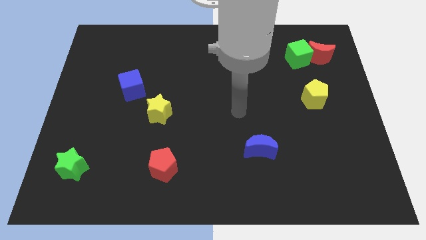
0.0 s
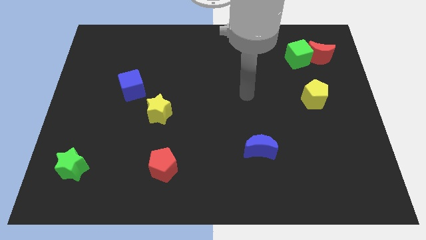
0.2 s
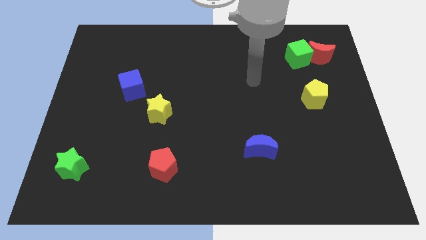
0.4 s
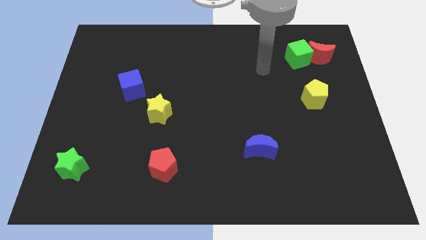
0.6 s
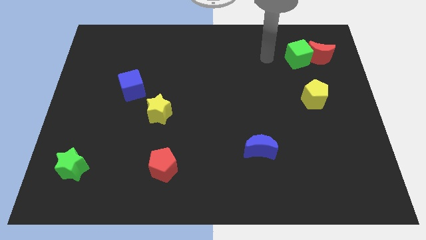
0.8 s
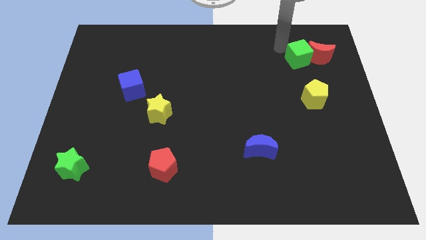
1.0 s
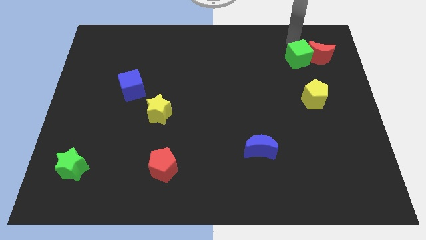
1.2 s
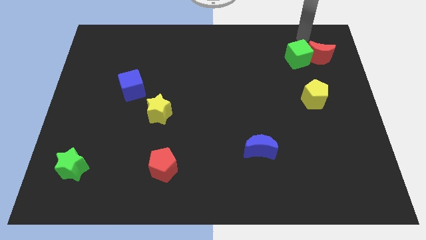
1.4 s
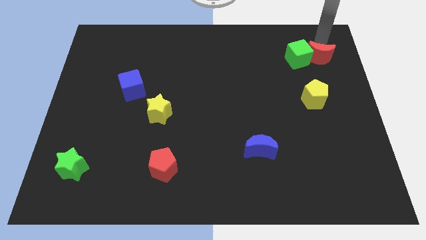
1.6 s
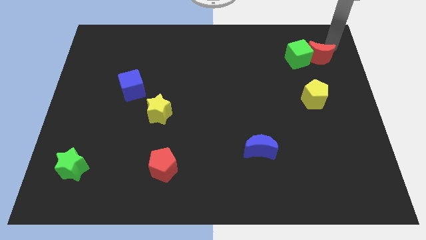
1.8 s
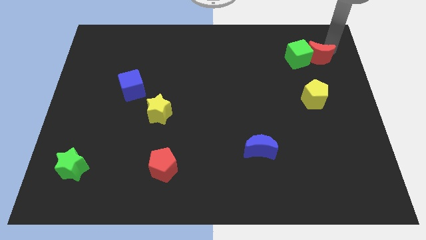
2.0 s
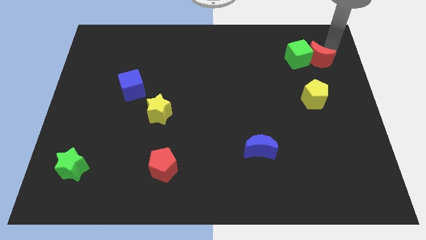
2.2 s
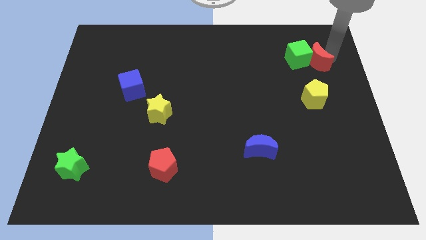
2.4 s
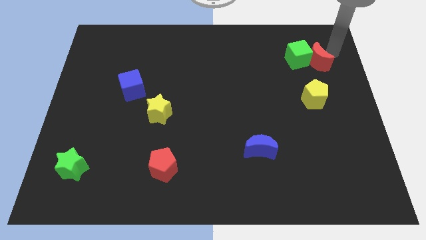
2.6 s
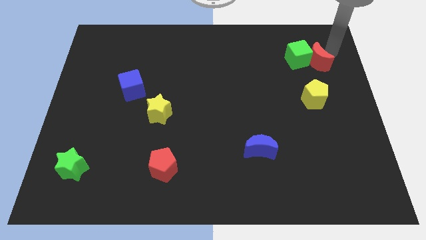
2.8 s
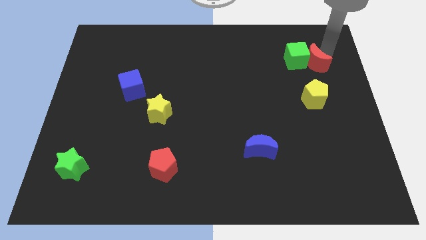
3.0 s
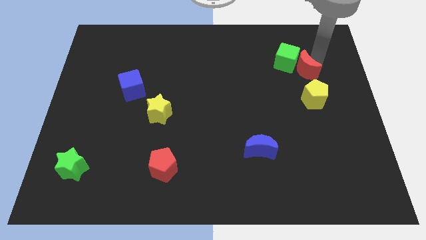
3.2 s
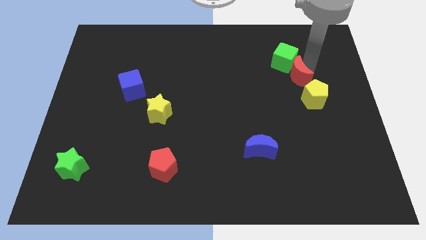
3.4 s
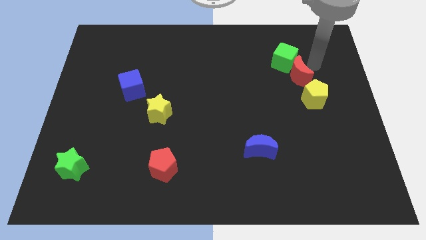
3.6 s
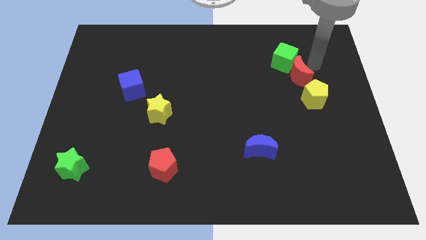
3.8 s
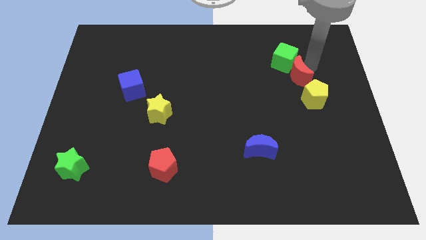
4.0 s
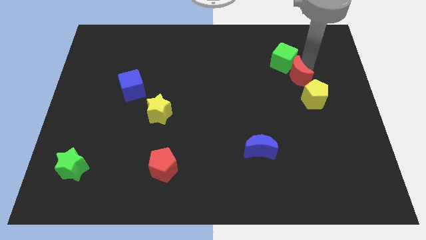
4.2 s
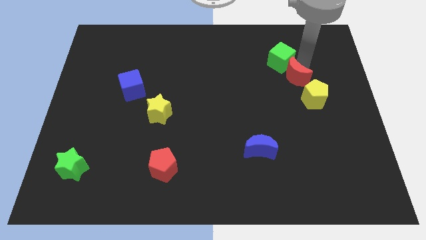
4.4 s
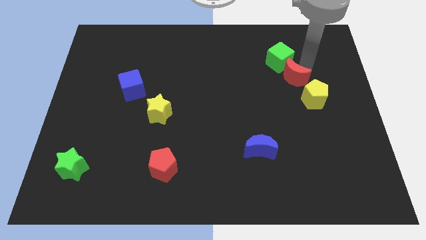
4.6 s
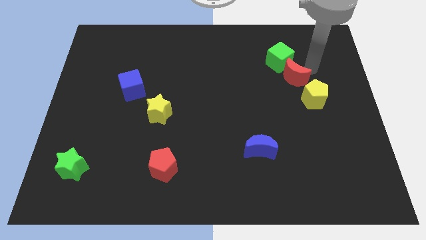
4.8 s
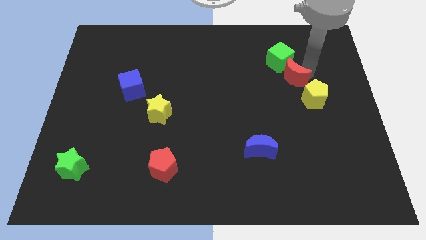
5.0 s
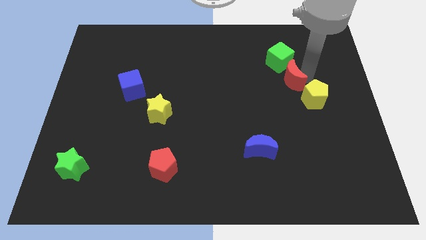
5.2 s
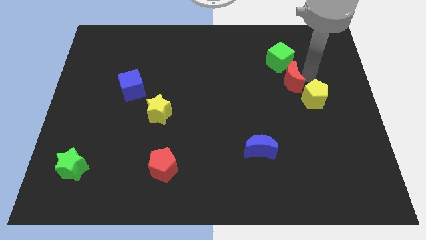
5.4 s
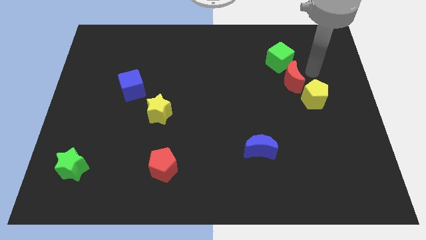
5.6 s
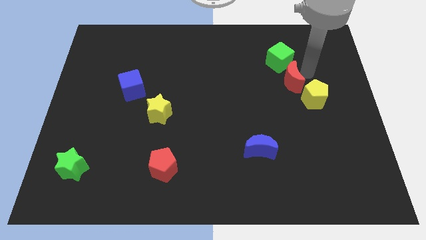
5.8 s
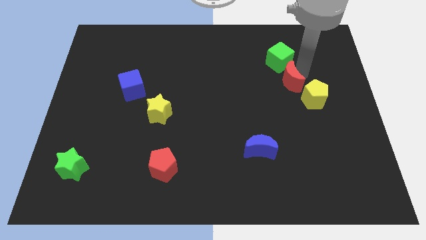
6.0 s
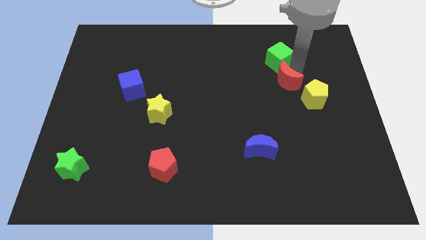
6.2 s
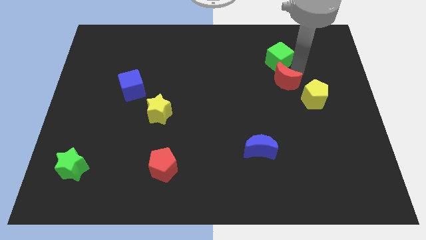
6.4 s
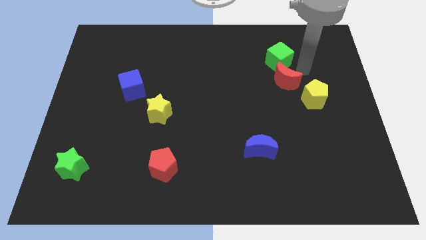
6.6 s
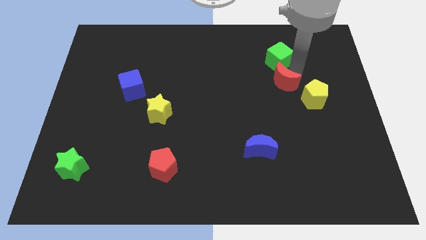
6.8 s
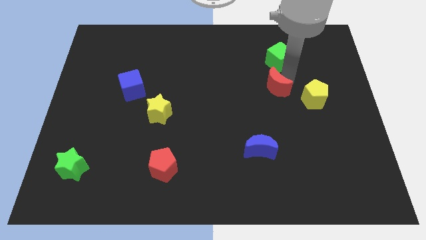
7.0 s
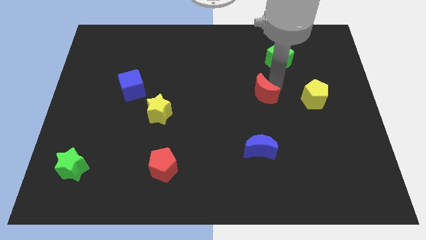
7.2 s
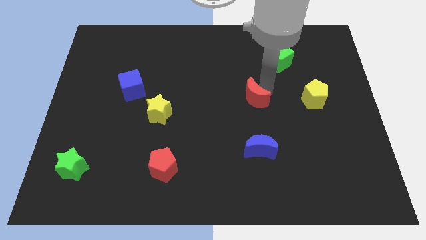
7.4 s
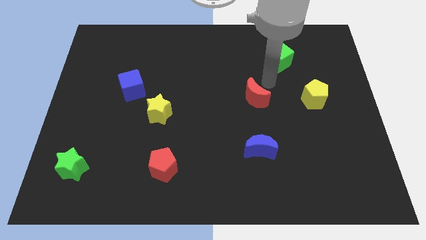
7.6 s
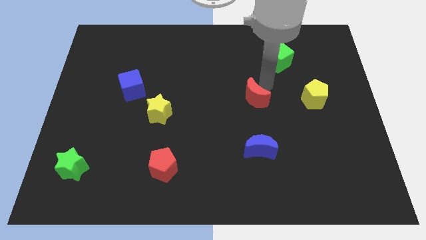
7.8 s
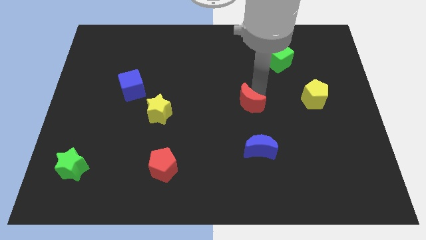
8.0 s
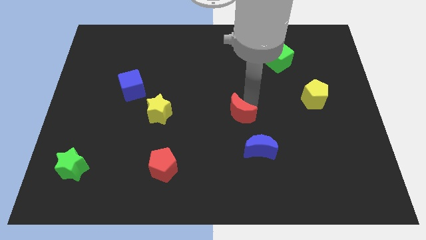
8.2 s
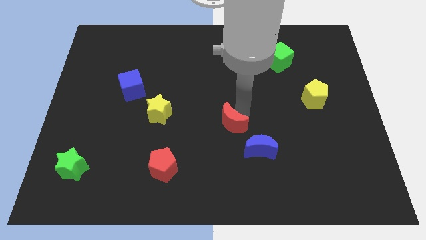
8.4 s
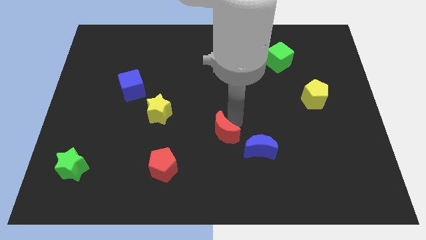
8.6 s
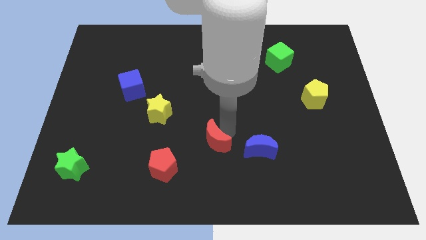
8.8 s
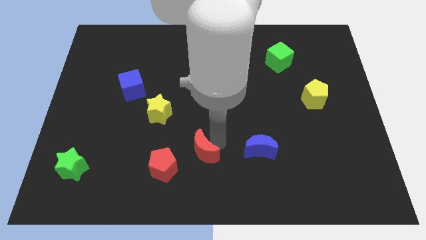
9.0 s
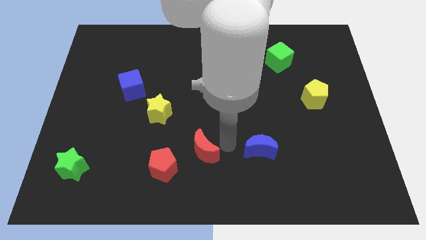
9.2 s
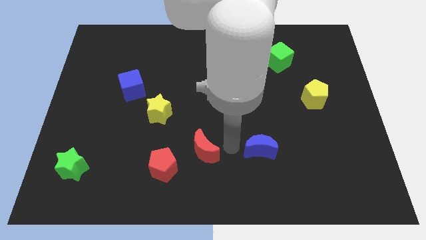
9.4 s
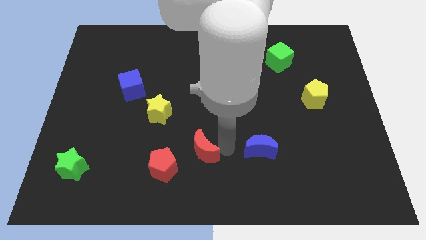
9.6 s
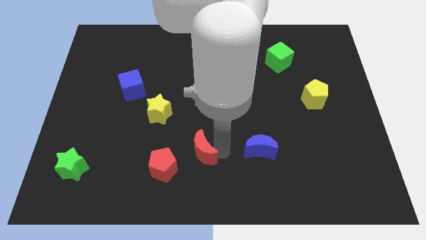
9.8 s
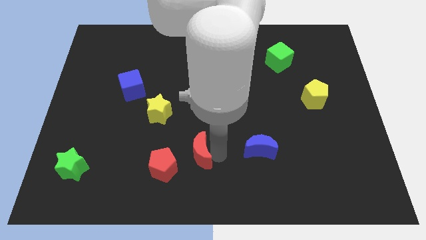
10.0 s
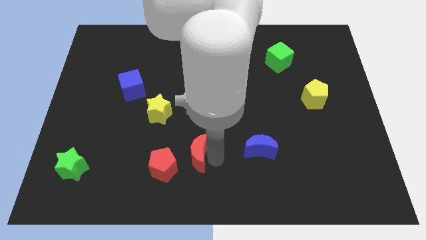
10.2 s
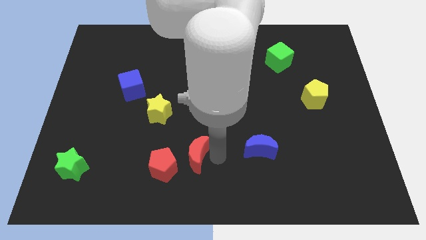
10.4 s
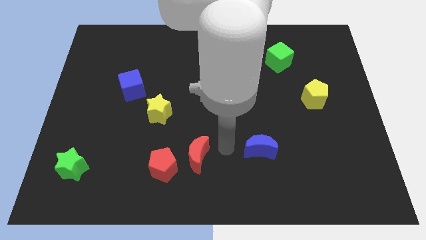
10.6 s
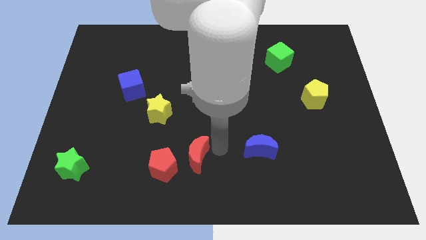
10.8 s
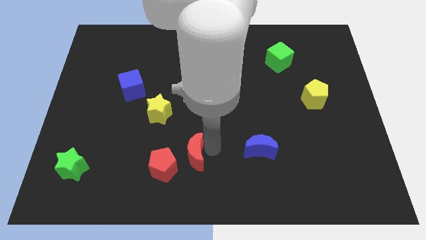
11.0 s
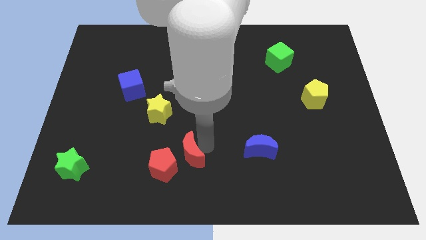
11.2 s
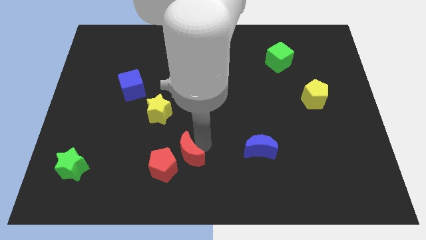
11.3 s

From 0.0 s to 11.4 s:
push the red moon towards the red pentagon

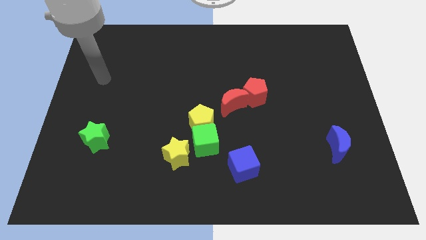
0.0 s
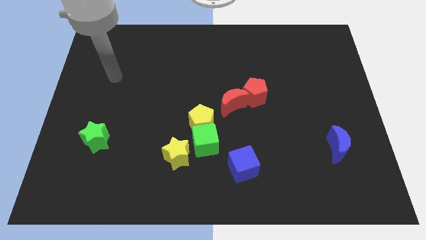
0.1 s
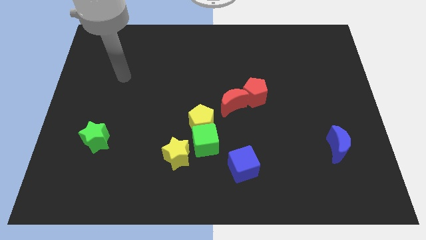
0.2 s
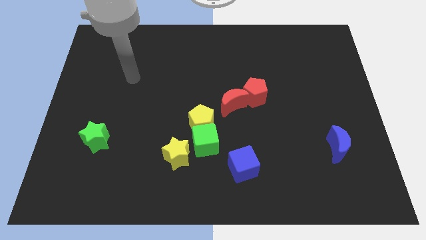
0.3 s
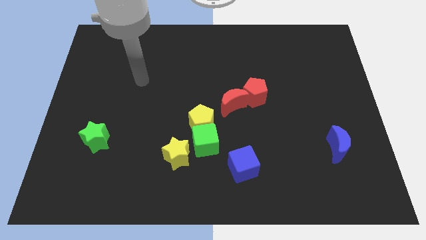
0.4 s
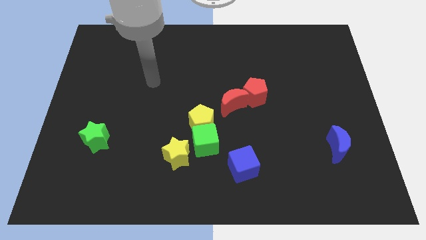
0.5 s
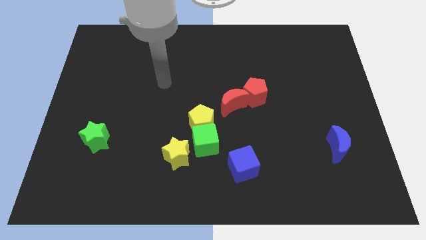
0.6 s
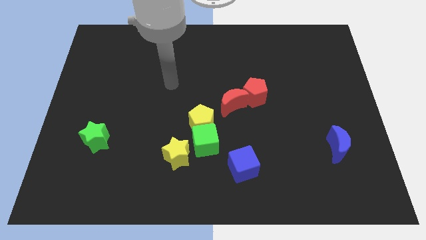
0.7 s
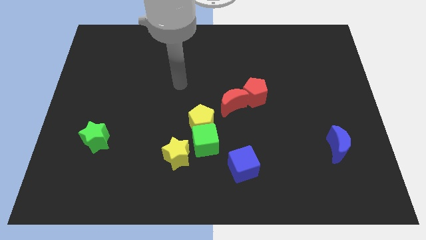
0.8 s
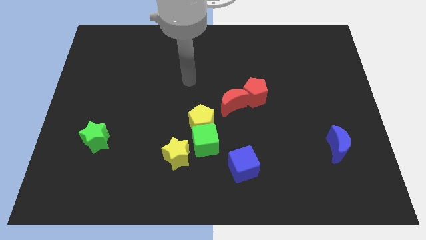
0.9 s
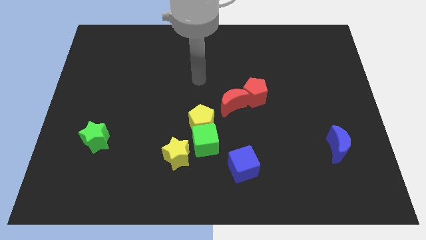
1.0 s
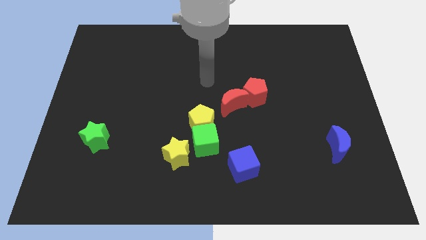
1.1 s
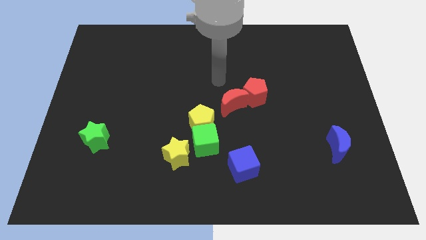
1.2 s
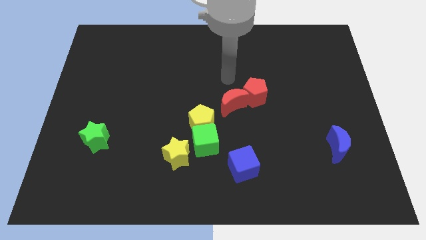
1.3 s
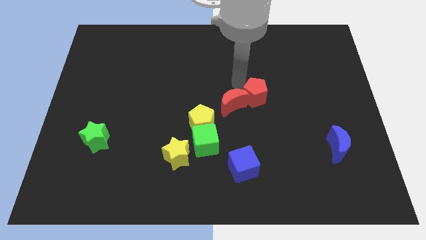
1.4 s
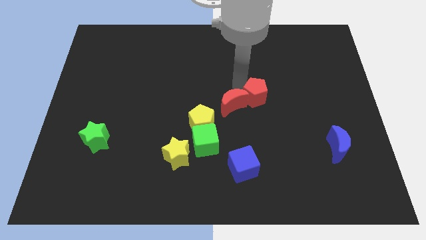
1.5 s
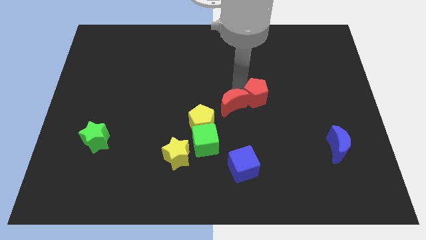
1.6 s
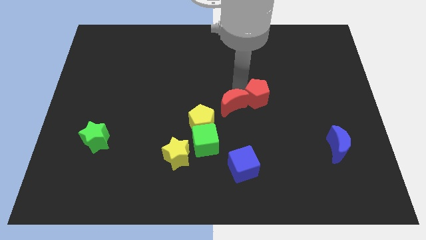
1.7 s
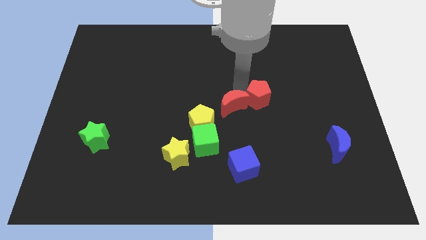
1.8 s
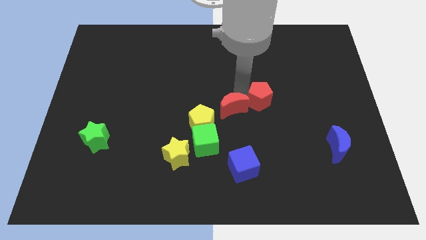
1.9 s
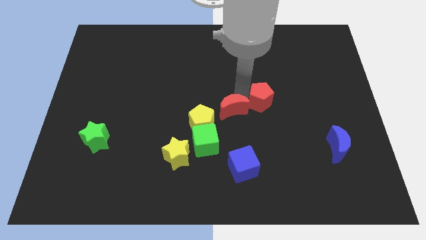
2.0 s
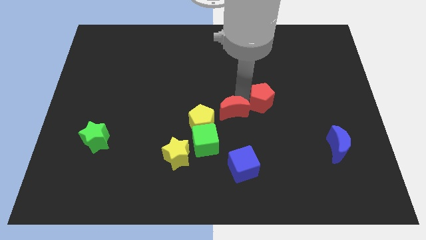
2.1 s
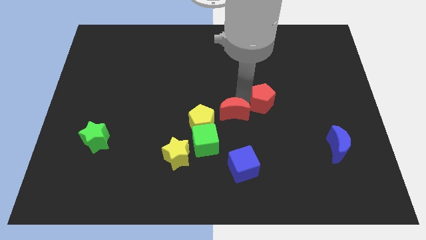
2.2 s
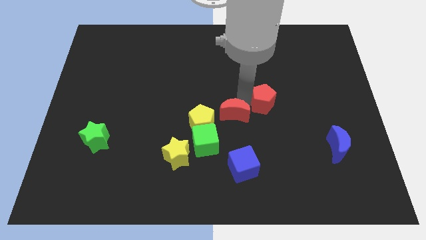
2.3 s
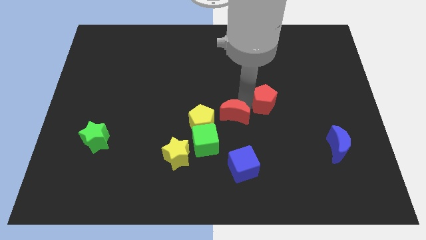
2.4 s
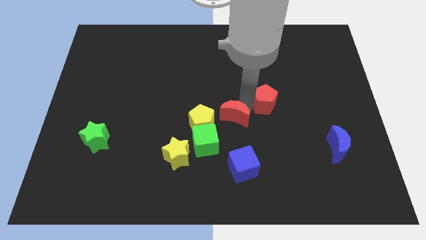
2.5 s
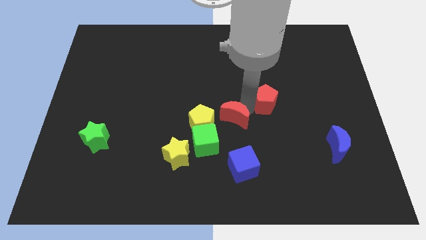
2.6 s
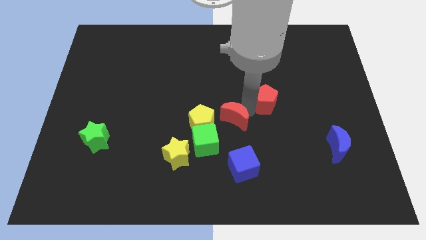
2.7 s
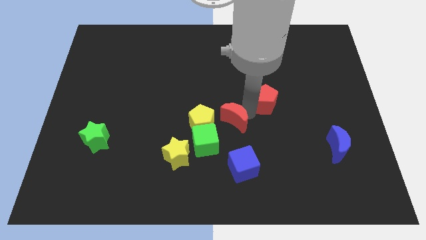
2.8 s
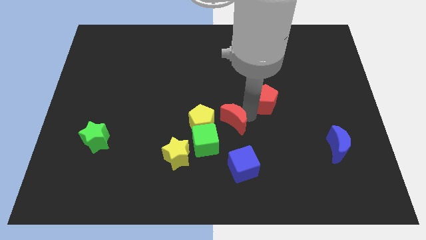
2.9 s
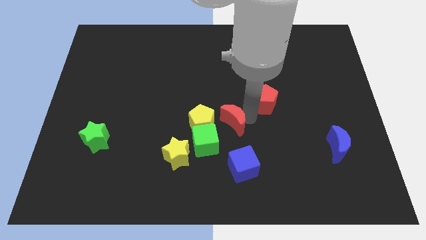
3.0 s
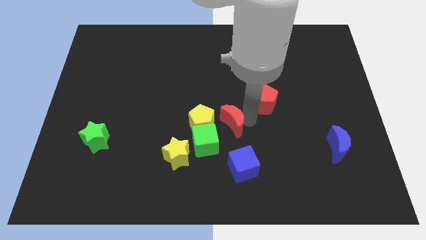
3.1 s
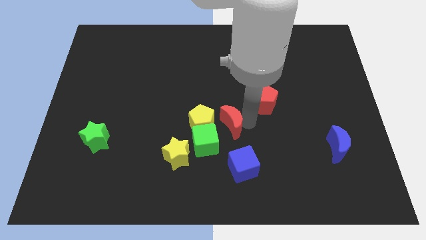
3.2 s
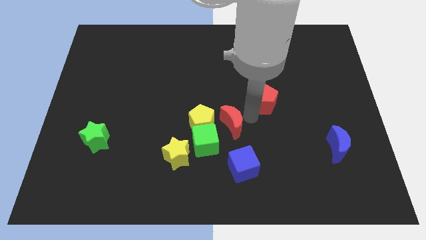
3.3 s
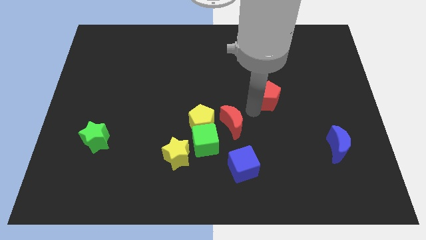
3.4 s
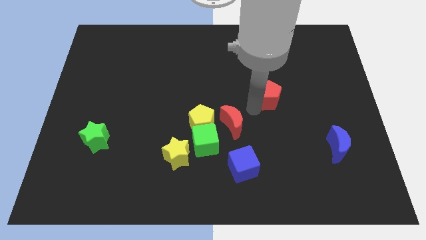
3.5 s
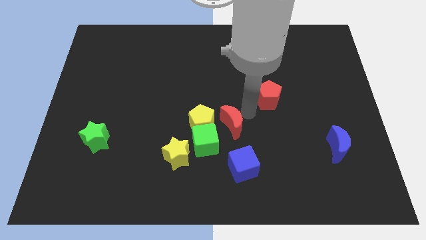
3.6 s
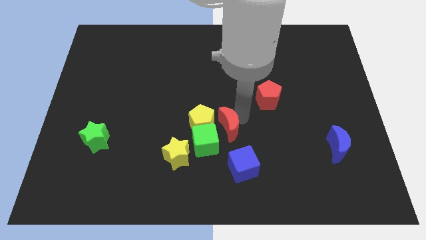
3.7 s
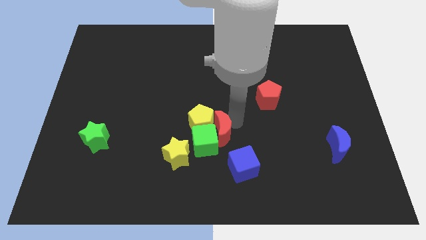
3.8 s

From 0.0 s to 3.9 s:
move the red moon towards the green cube
